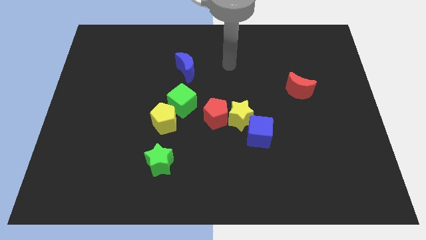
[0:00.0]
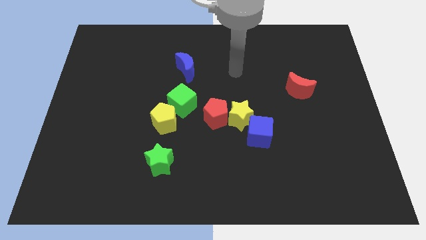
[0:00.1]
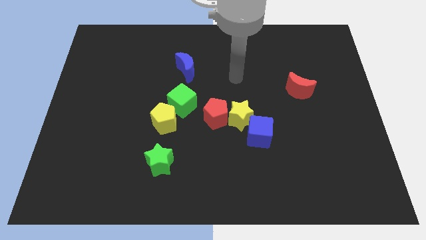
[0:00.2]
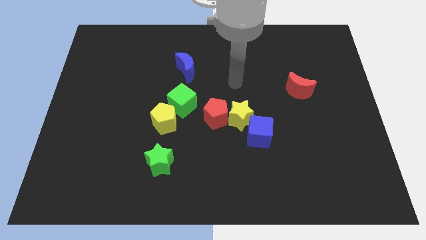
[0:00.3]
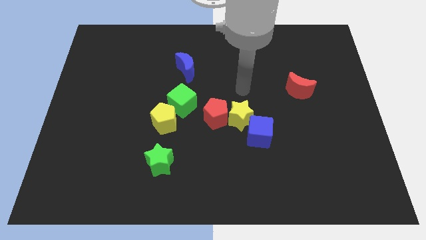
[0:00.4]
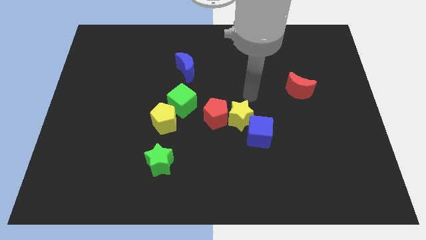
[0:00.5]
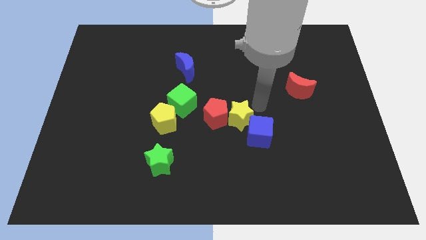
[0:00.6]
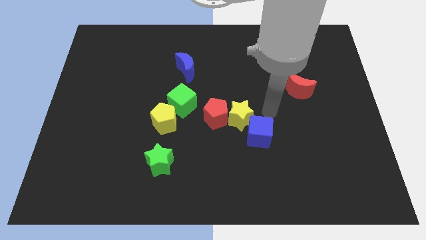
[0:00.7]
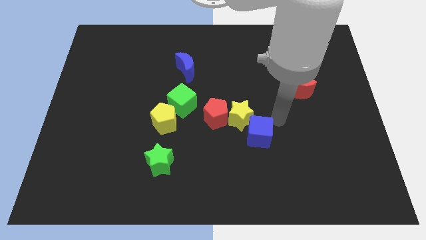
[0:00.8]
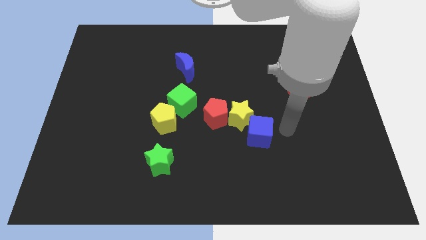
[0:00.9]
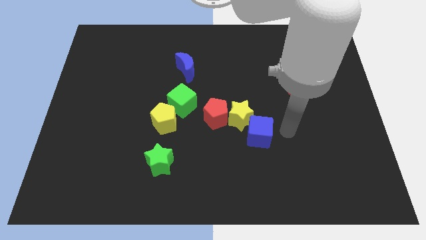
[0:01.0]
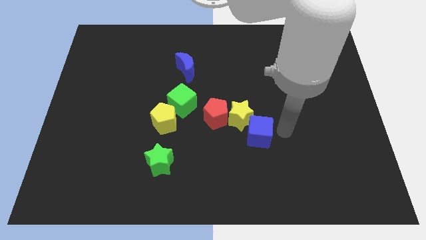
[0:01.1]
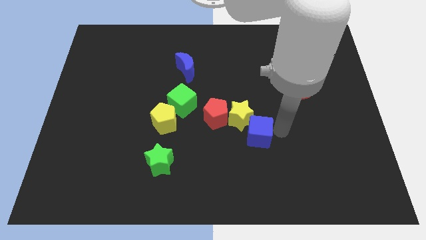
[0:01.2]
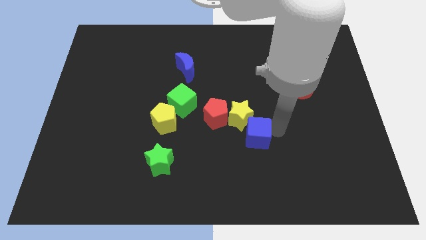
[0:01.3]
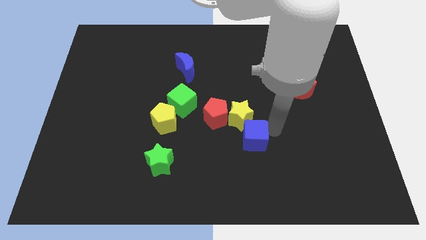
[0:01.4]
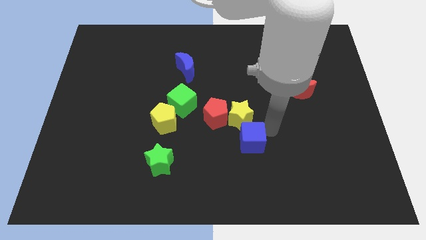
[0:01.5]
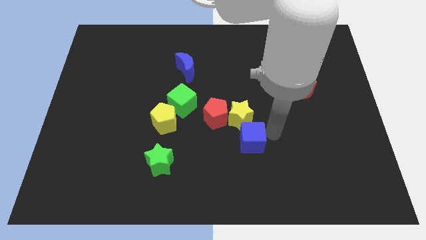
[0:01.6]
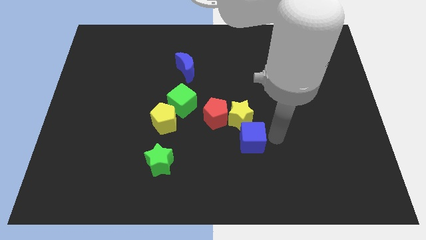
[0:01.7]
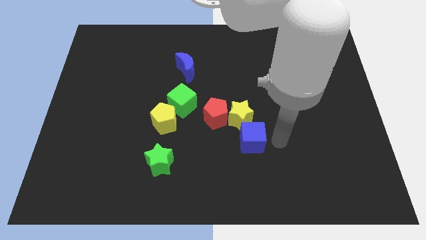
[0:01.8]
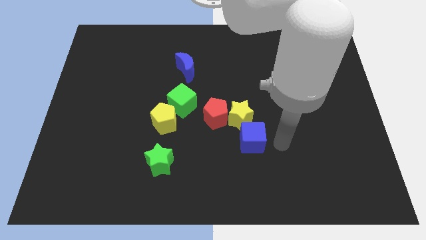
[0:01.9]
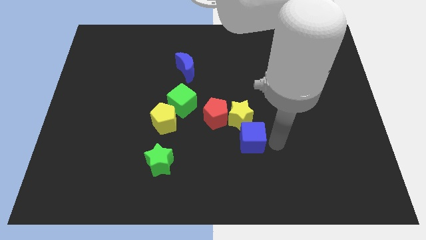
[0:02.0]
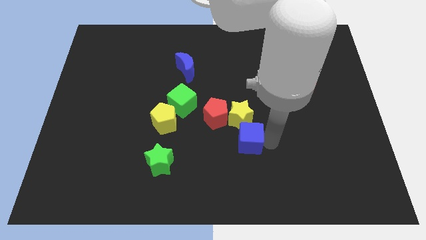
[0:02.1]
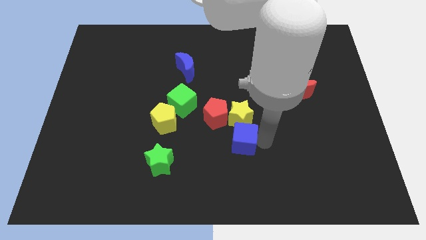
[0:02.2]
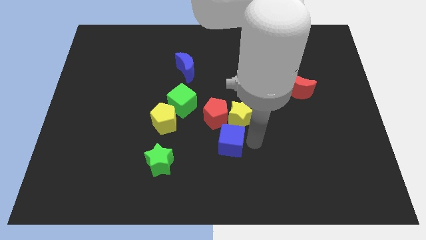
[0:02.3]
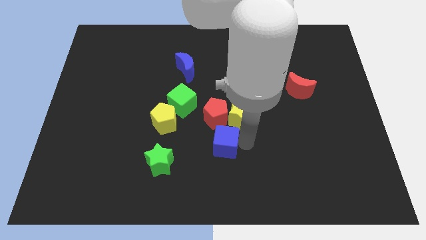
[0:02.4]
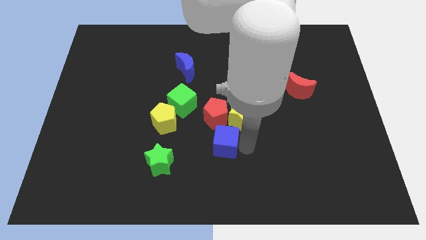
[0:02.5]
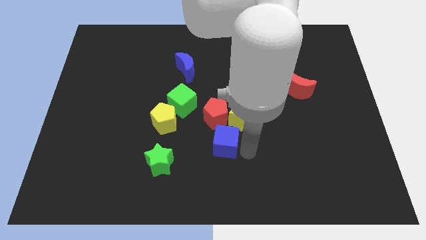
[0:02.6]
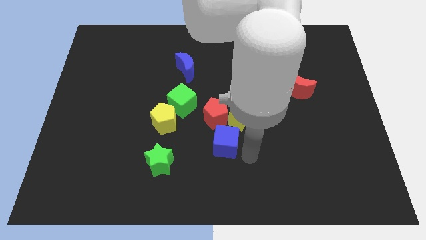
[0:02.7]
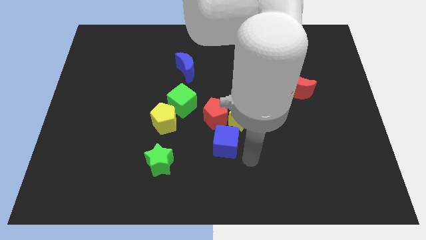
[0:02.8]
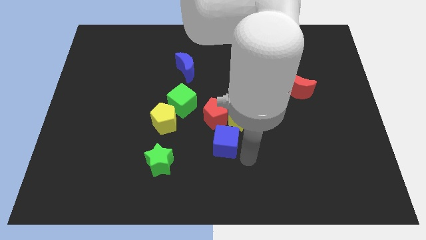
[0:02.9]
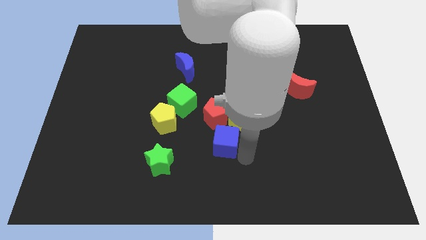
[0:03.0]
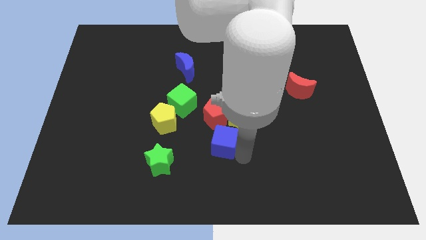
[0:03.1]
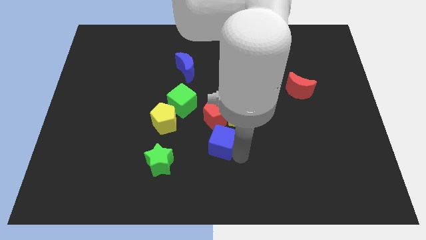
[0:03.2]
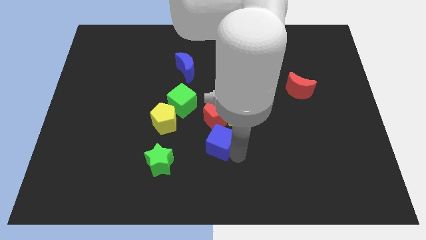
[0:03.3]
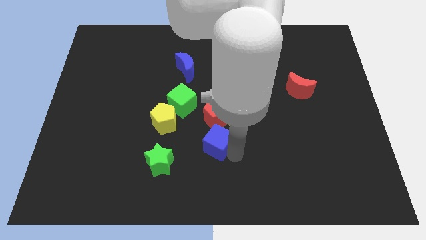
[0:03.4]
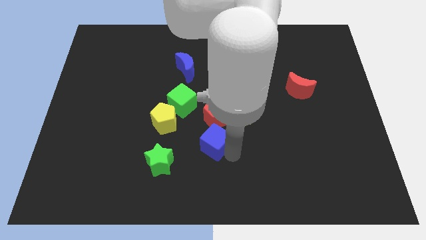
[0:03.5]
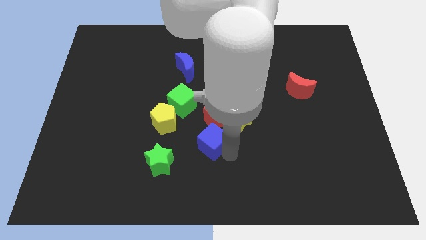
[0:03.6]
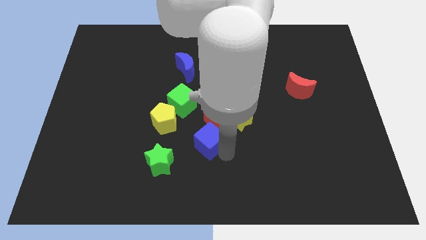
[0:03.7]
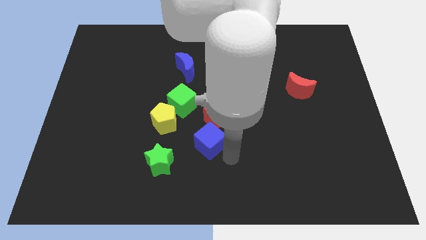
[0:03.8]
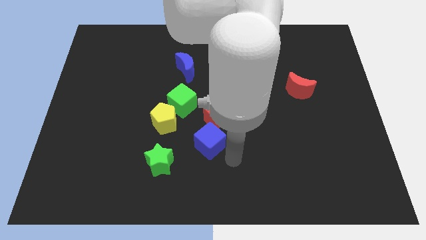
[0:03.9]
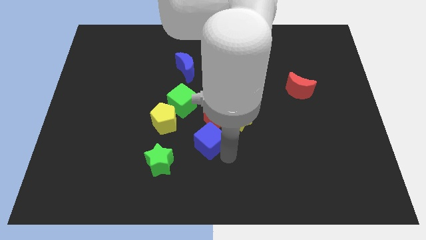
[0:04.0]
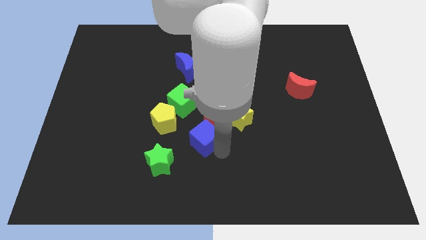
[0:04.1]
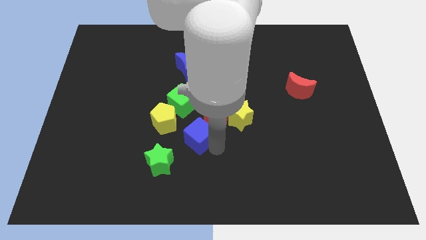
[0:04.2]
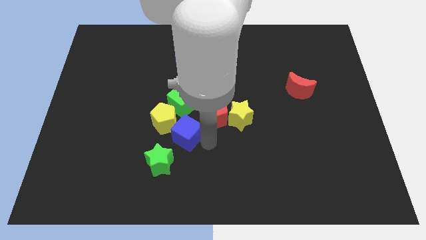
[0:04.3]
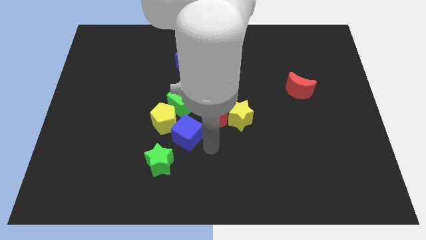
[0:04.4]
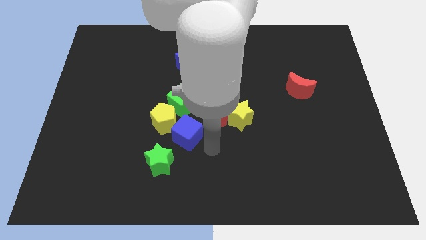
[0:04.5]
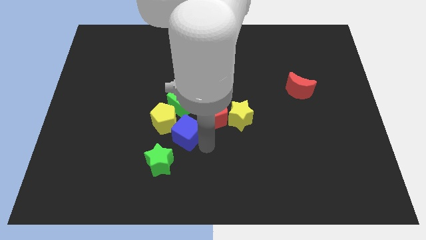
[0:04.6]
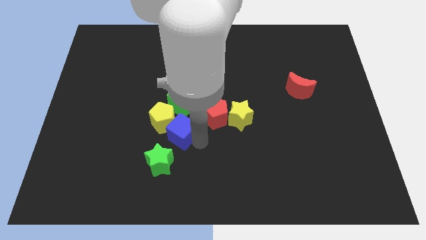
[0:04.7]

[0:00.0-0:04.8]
put the blue cube close to the yellow pentagon

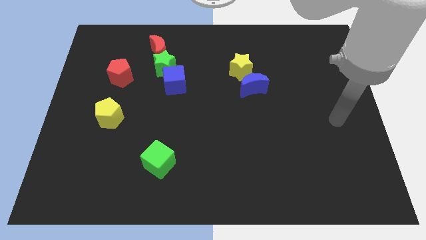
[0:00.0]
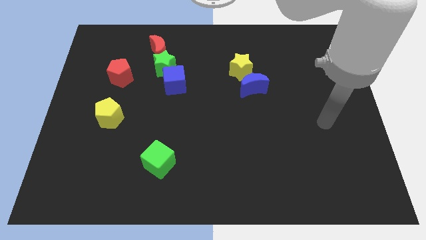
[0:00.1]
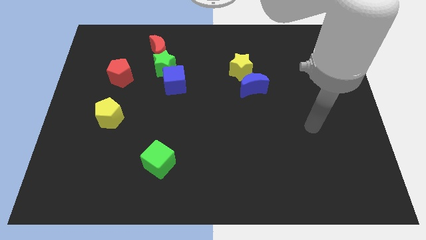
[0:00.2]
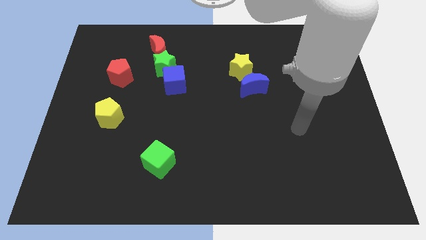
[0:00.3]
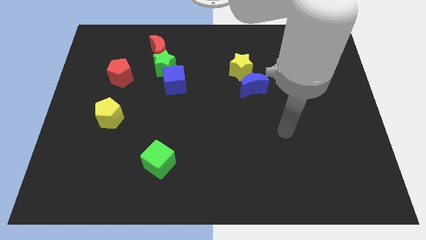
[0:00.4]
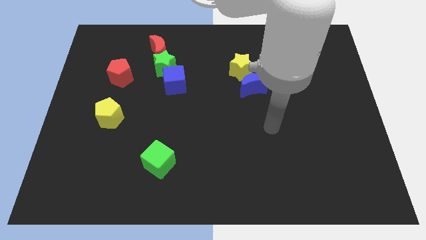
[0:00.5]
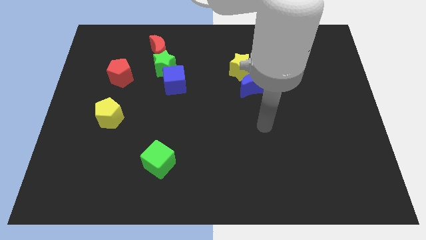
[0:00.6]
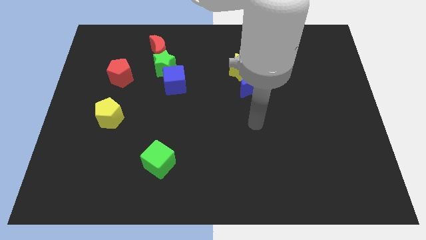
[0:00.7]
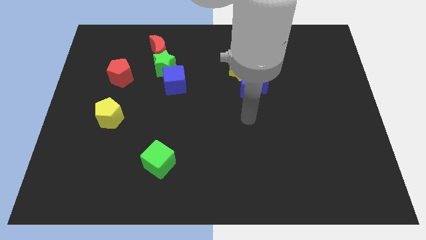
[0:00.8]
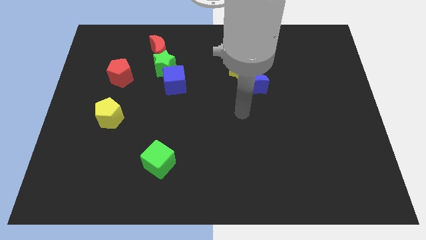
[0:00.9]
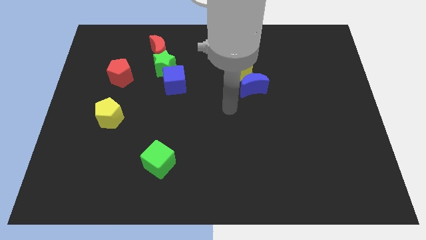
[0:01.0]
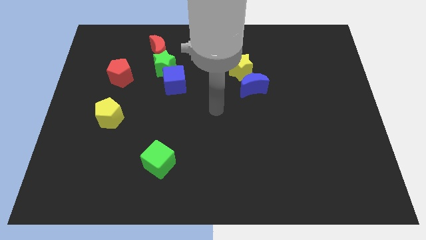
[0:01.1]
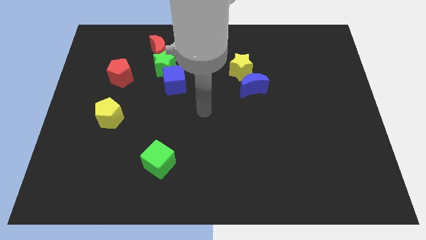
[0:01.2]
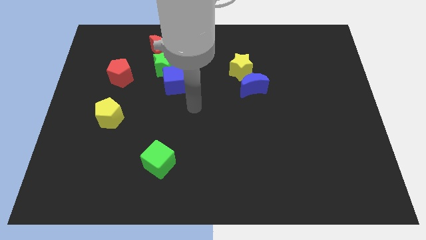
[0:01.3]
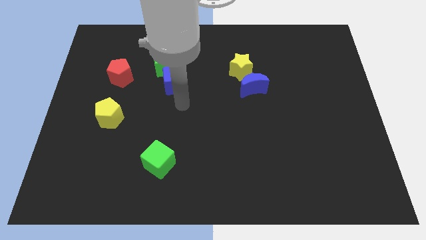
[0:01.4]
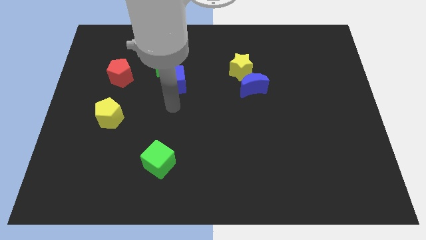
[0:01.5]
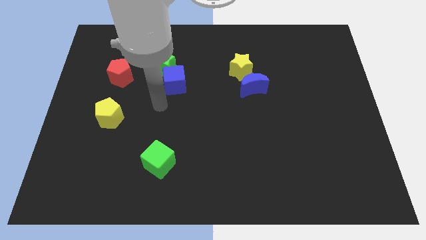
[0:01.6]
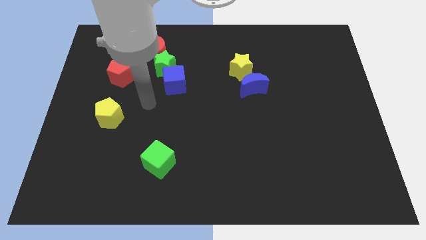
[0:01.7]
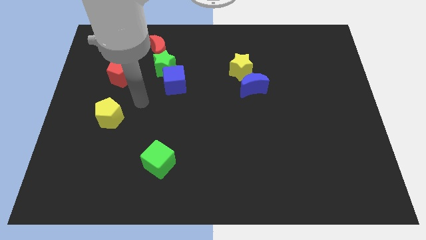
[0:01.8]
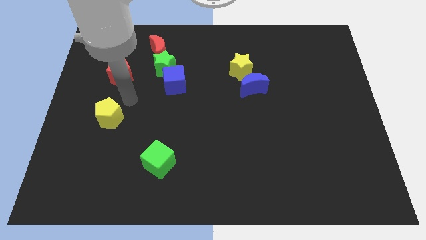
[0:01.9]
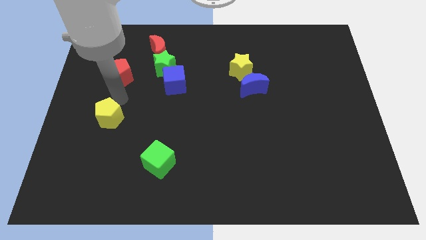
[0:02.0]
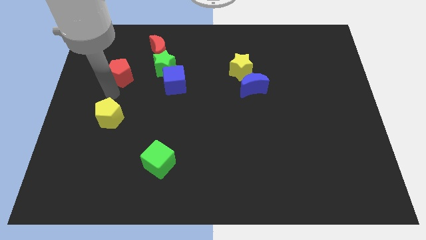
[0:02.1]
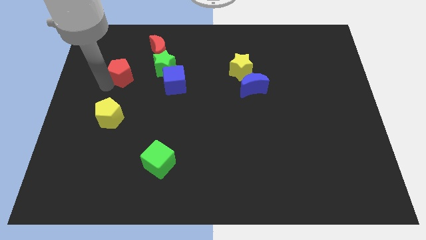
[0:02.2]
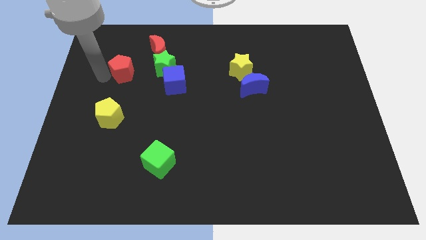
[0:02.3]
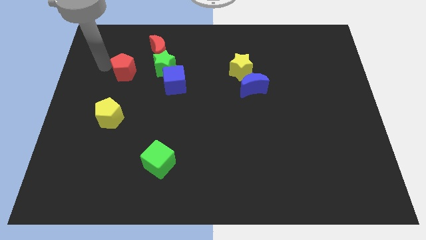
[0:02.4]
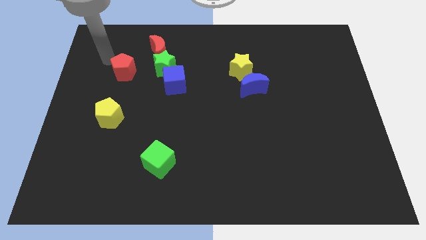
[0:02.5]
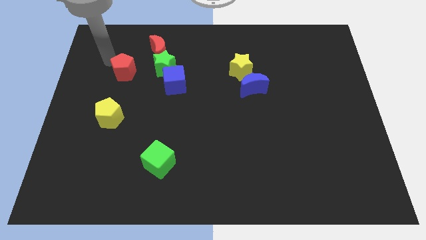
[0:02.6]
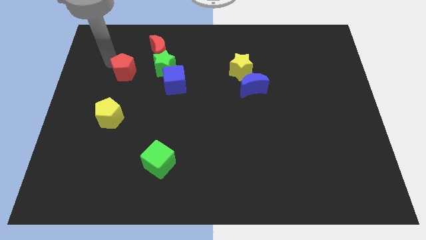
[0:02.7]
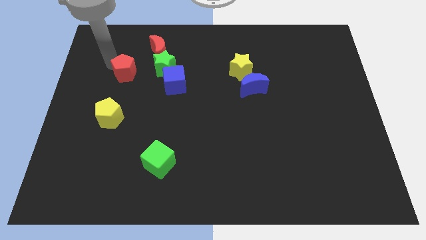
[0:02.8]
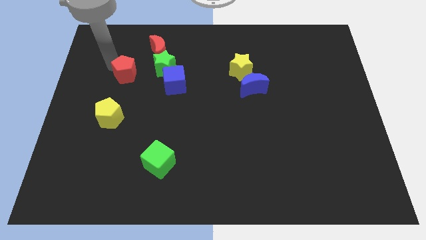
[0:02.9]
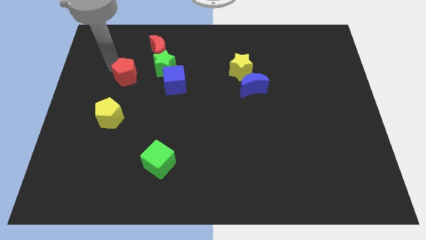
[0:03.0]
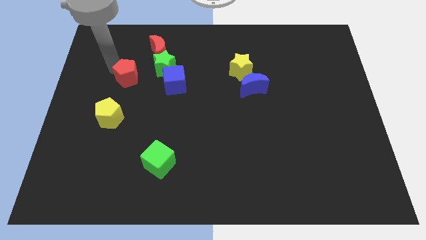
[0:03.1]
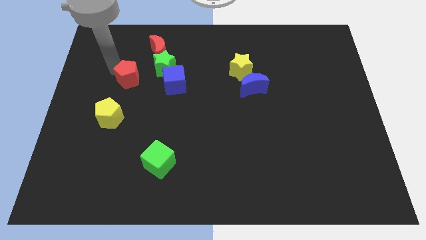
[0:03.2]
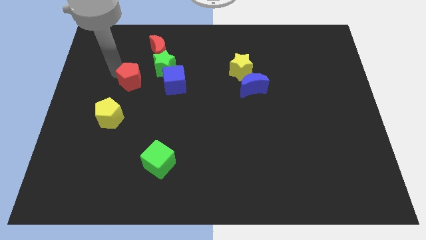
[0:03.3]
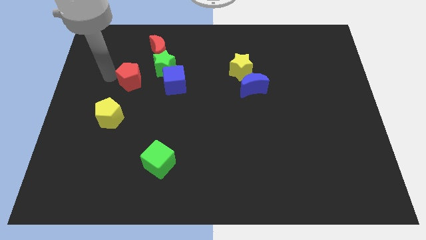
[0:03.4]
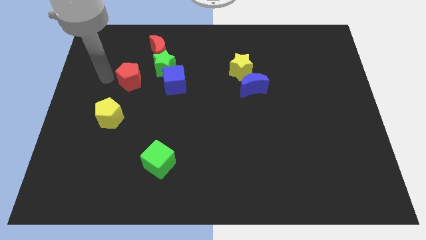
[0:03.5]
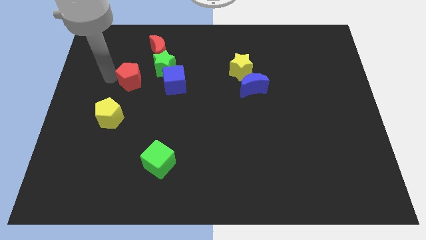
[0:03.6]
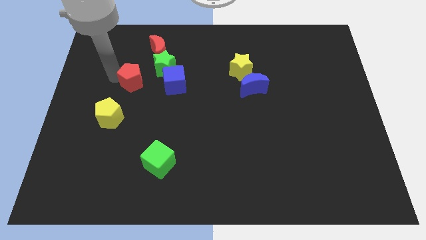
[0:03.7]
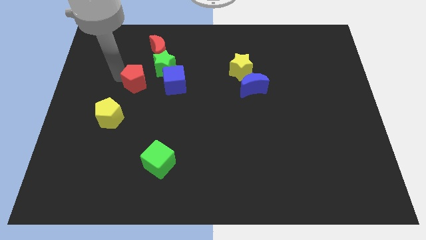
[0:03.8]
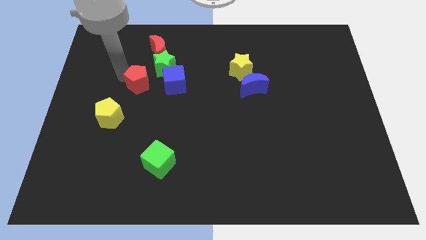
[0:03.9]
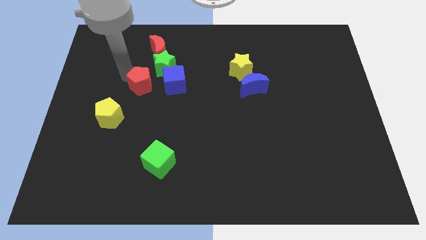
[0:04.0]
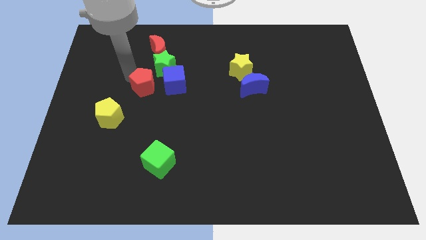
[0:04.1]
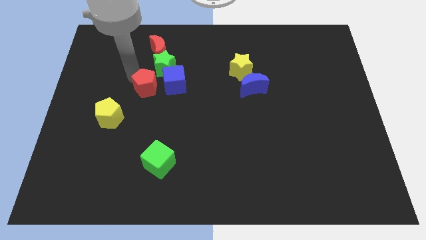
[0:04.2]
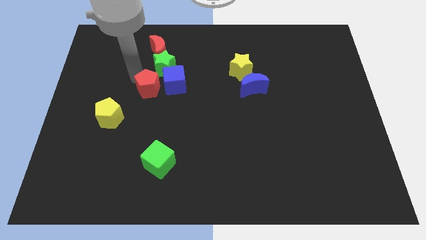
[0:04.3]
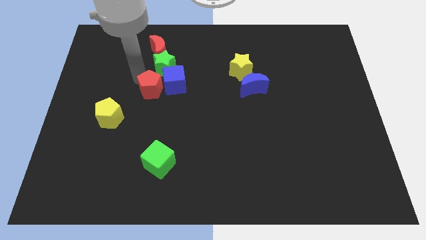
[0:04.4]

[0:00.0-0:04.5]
push the red pentagon to the blue cube
